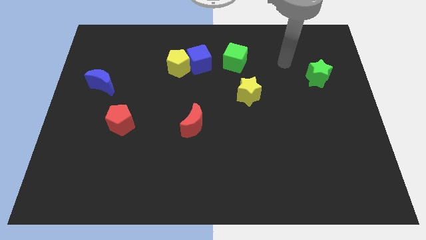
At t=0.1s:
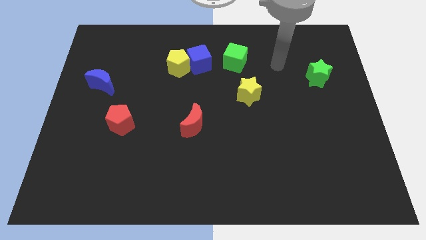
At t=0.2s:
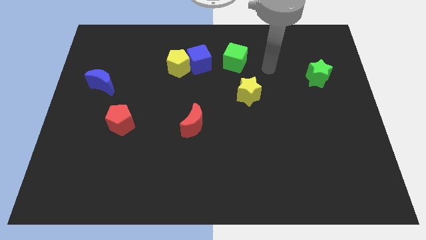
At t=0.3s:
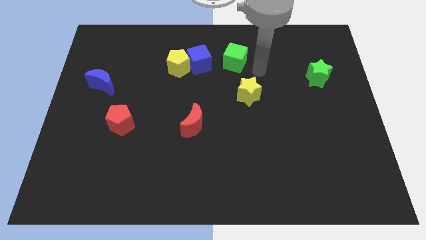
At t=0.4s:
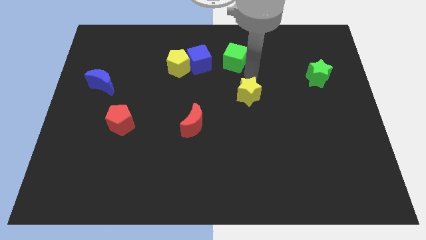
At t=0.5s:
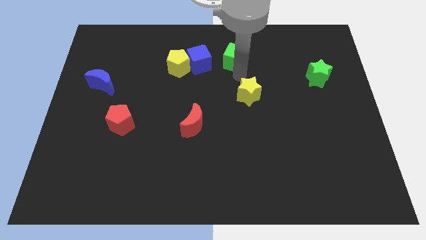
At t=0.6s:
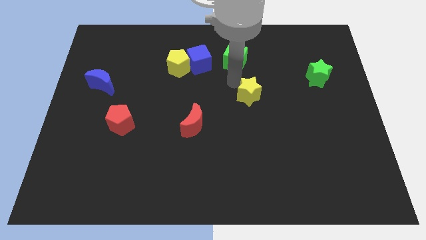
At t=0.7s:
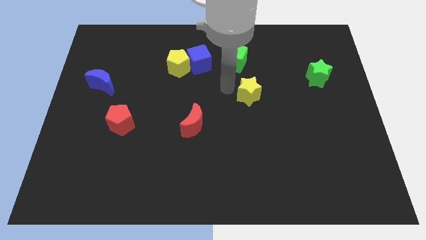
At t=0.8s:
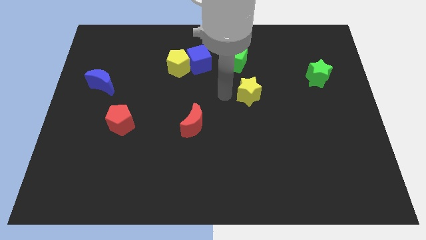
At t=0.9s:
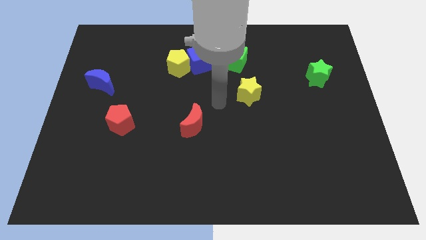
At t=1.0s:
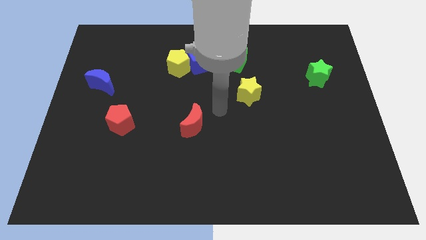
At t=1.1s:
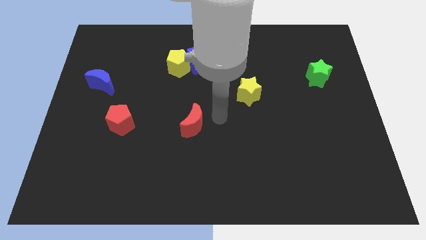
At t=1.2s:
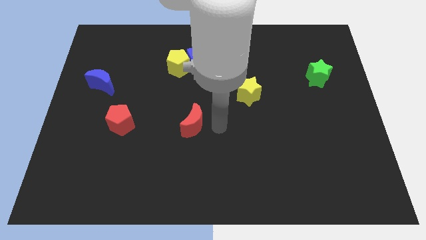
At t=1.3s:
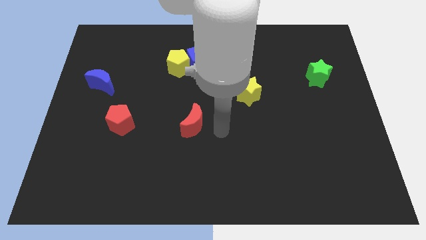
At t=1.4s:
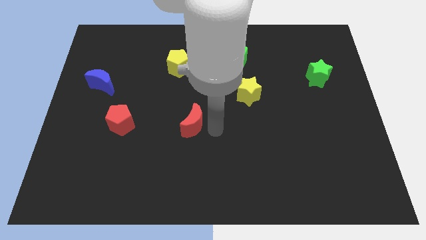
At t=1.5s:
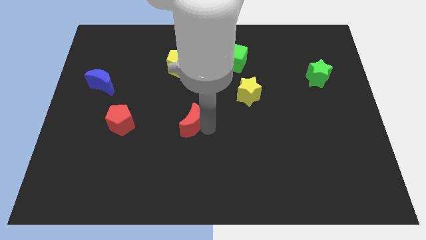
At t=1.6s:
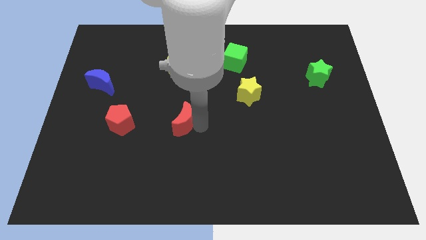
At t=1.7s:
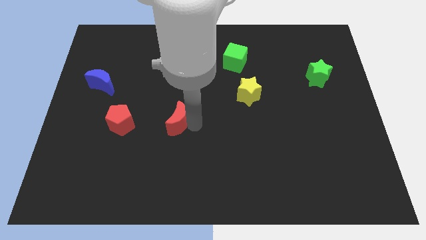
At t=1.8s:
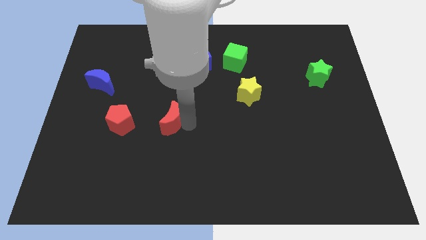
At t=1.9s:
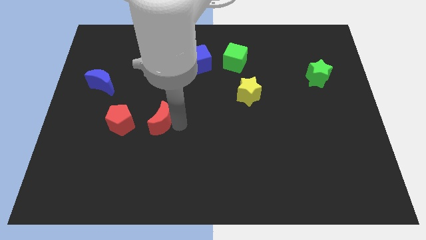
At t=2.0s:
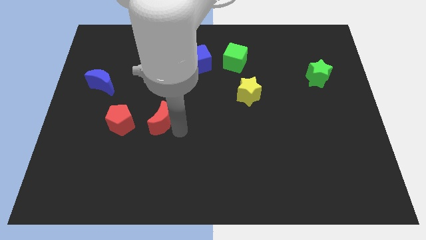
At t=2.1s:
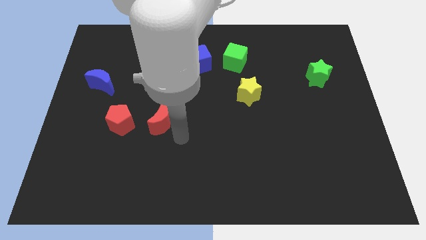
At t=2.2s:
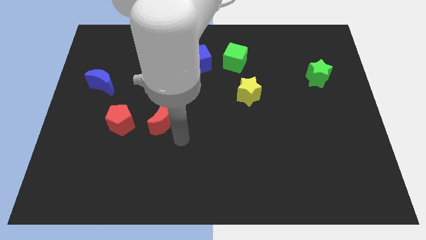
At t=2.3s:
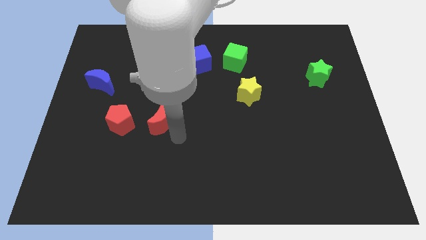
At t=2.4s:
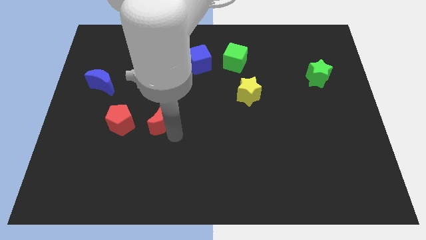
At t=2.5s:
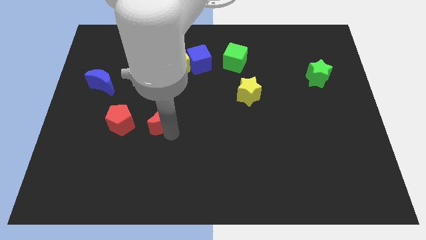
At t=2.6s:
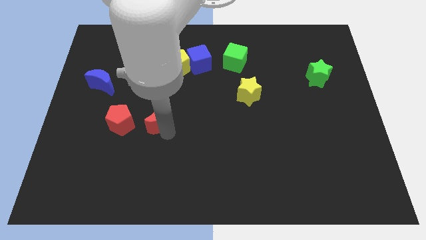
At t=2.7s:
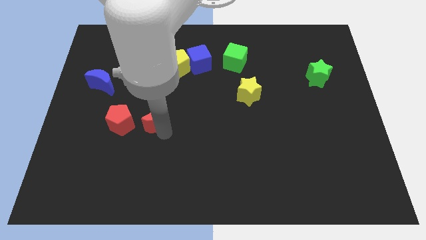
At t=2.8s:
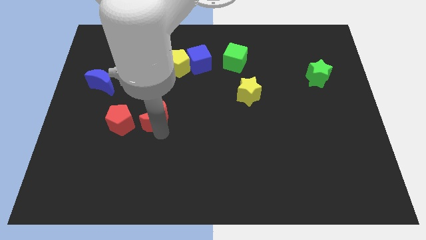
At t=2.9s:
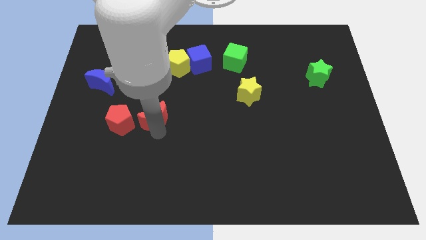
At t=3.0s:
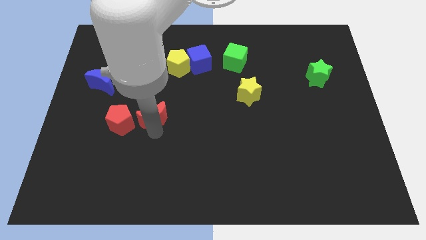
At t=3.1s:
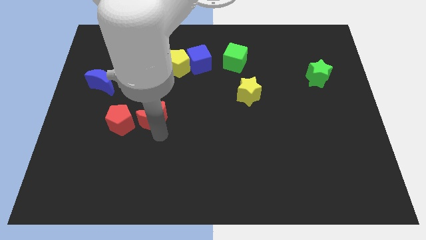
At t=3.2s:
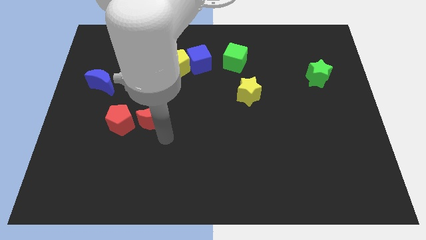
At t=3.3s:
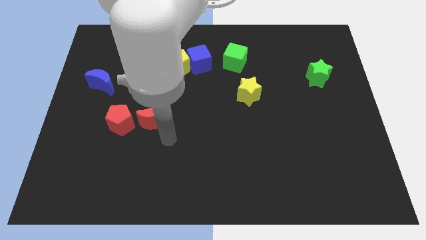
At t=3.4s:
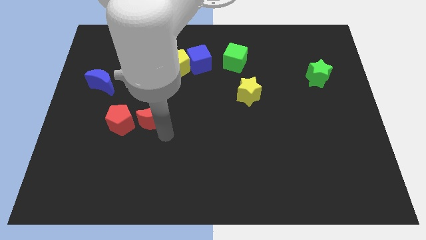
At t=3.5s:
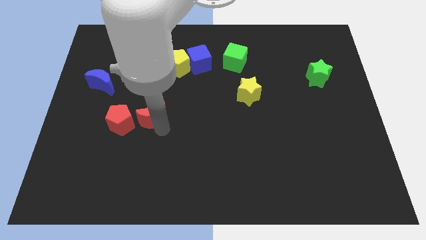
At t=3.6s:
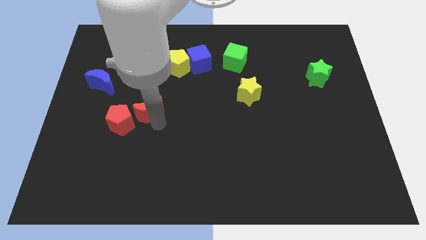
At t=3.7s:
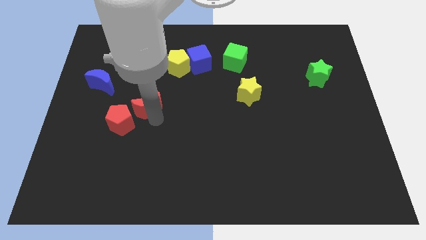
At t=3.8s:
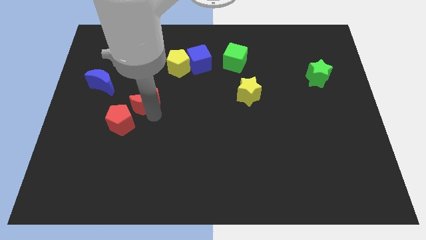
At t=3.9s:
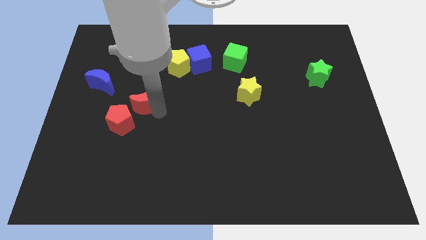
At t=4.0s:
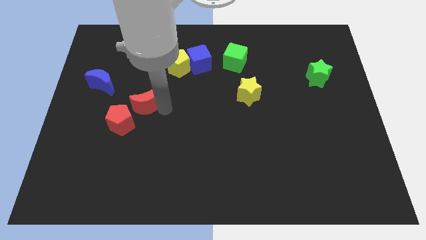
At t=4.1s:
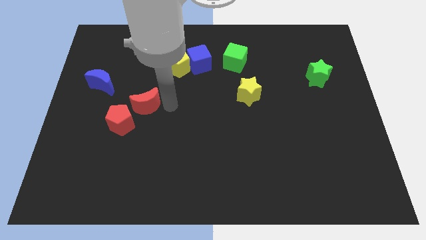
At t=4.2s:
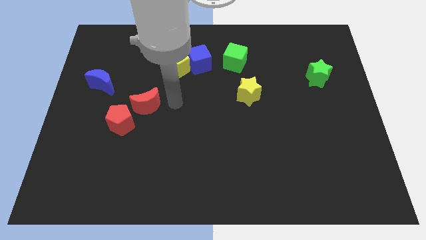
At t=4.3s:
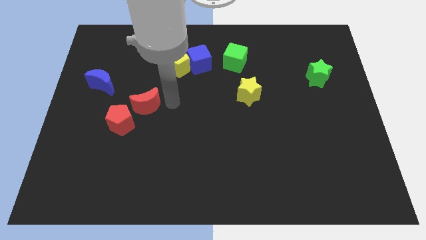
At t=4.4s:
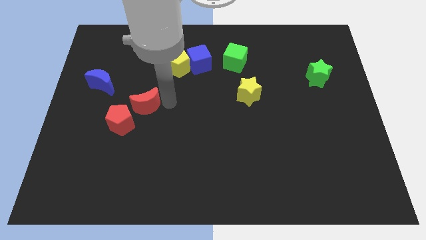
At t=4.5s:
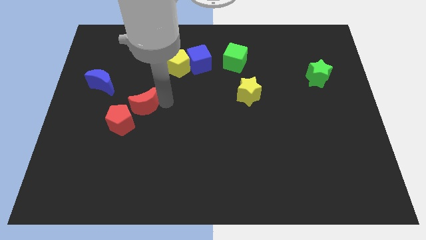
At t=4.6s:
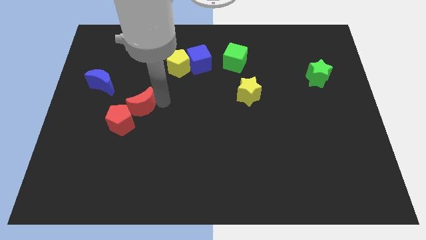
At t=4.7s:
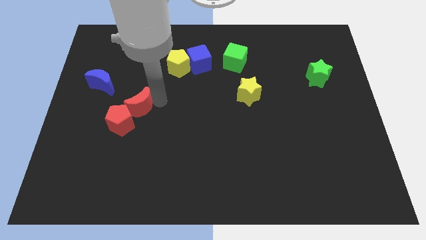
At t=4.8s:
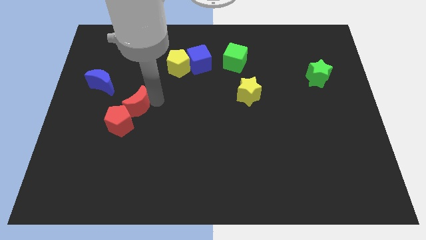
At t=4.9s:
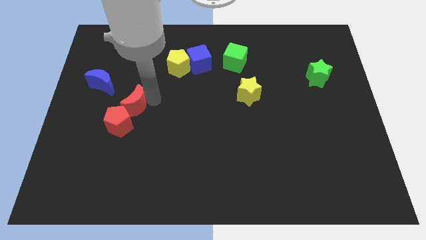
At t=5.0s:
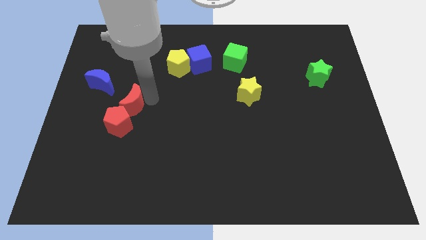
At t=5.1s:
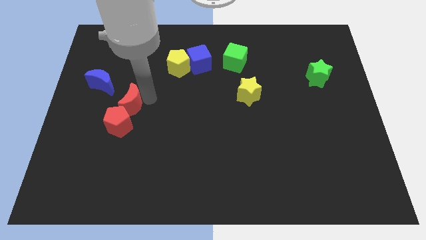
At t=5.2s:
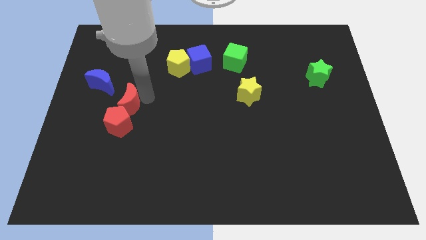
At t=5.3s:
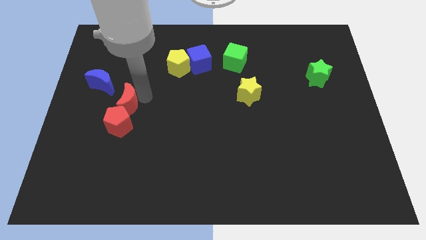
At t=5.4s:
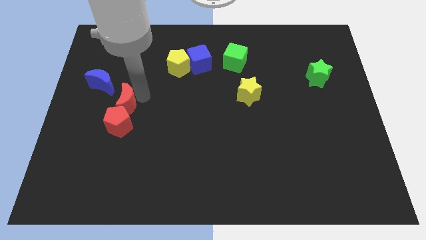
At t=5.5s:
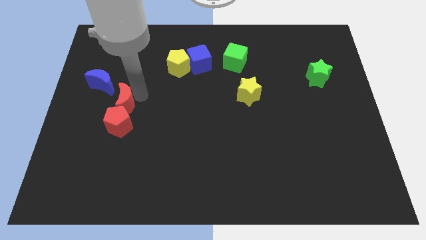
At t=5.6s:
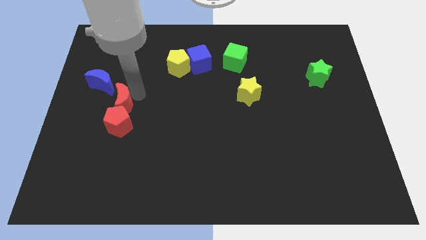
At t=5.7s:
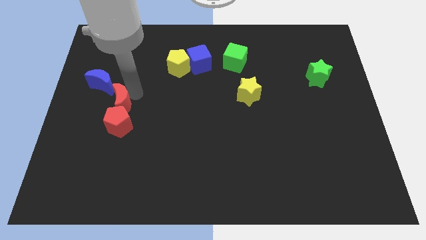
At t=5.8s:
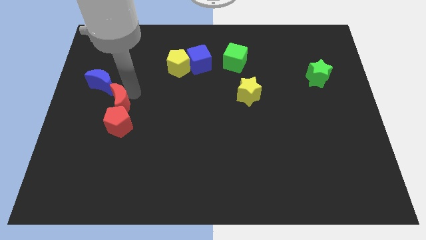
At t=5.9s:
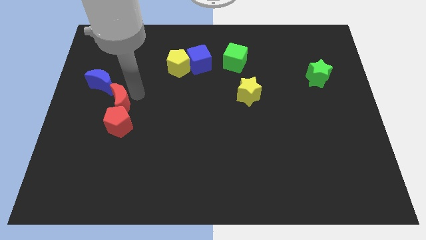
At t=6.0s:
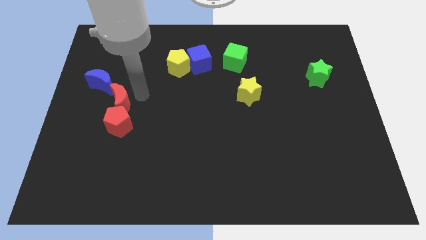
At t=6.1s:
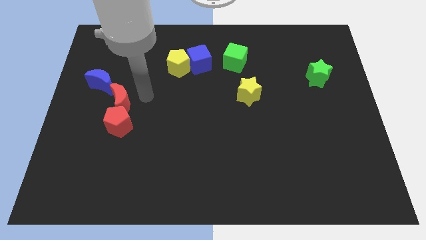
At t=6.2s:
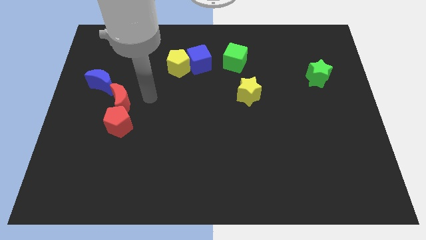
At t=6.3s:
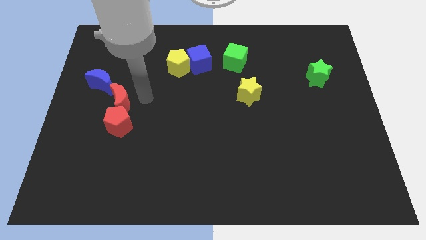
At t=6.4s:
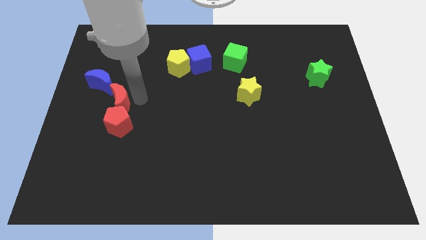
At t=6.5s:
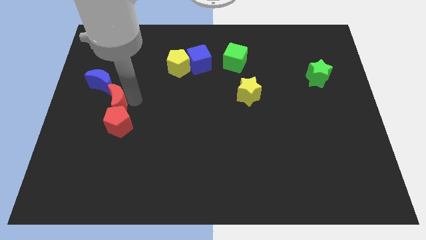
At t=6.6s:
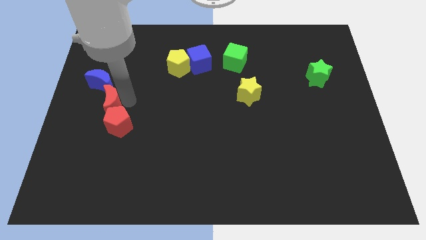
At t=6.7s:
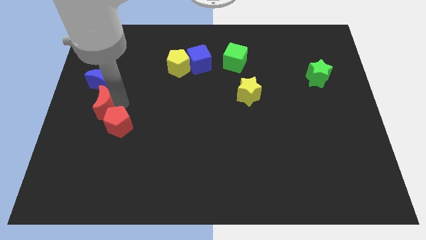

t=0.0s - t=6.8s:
push the red moon to the left side

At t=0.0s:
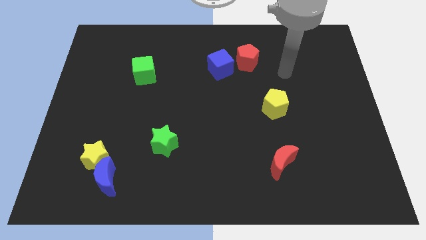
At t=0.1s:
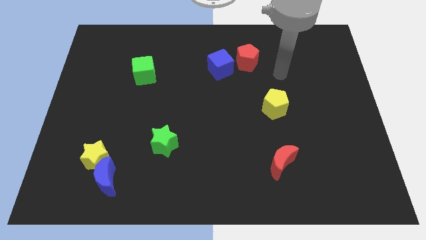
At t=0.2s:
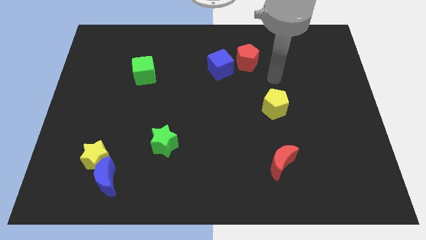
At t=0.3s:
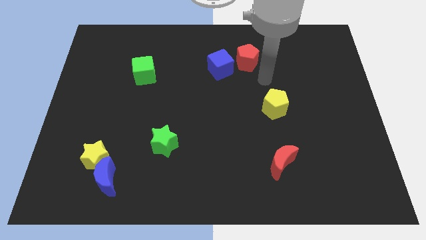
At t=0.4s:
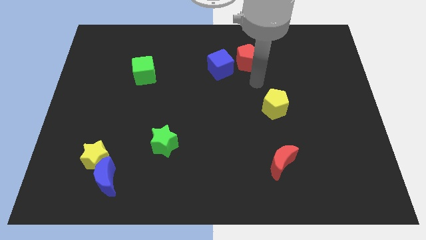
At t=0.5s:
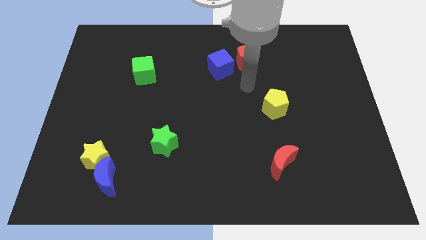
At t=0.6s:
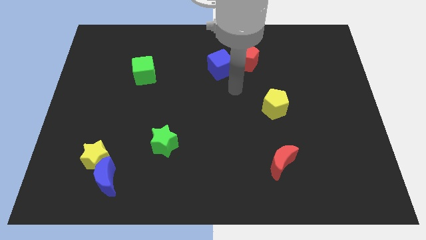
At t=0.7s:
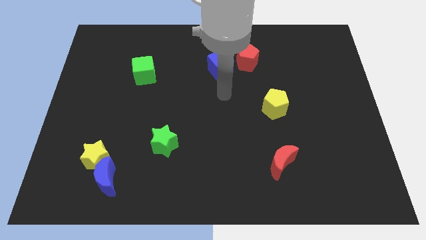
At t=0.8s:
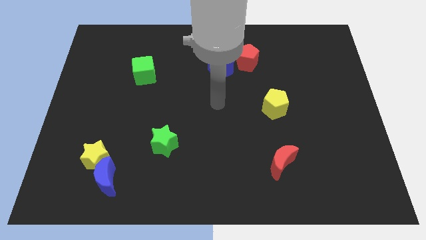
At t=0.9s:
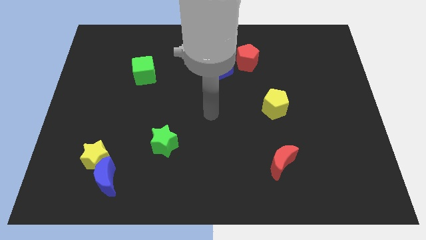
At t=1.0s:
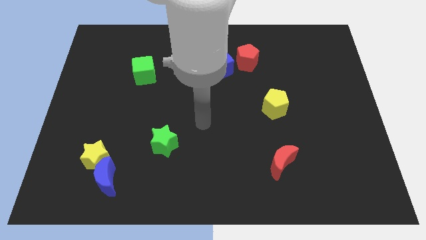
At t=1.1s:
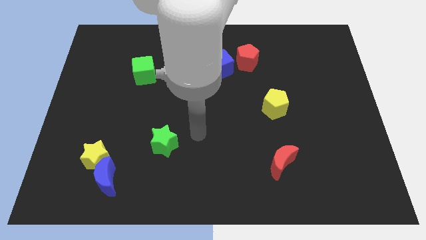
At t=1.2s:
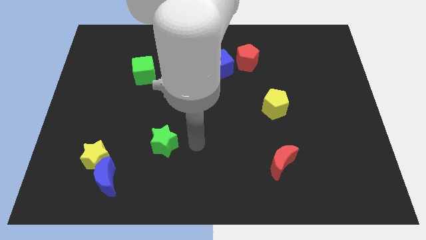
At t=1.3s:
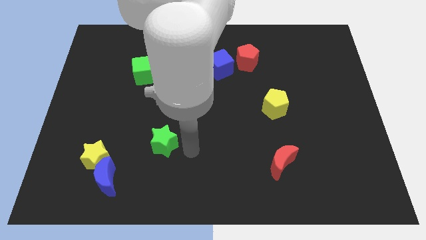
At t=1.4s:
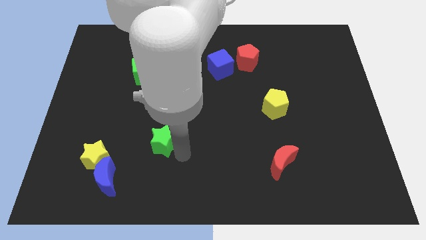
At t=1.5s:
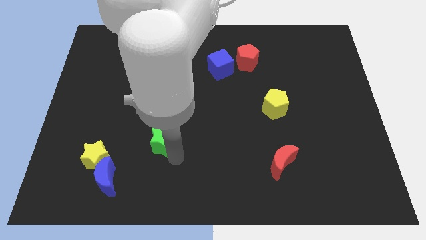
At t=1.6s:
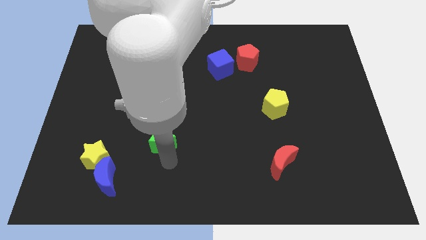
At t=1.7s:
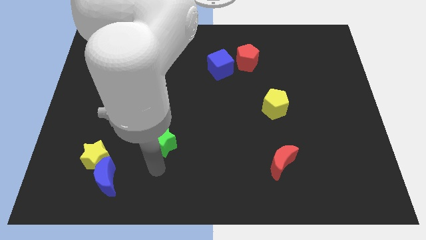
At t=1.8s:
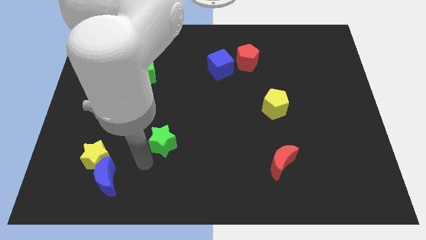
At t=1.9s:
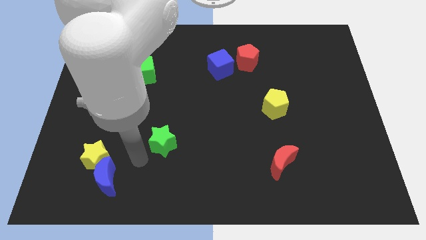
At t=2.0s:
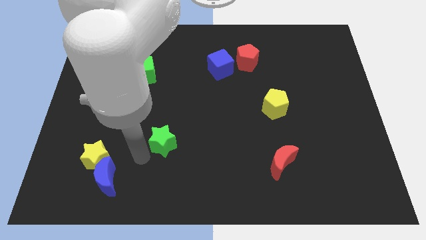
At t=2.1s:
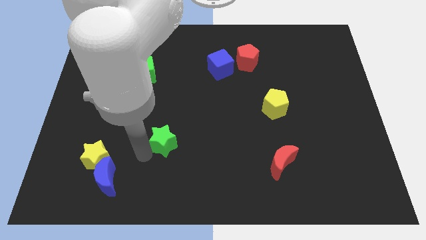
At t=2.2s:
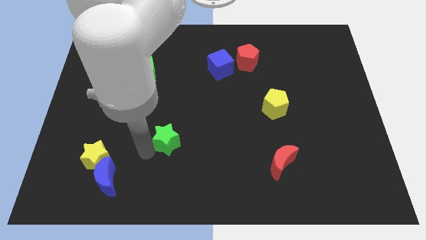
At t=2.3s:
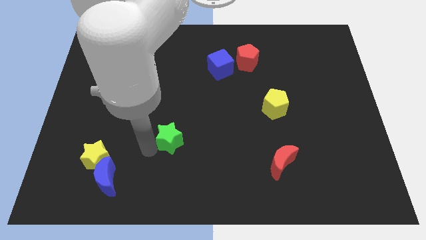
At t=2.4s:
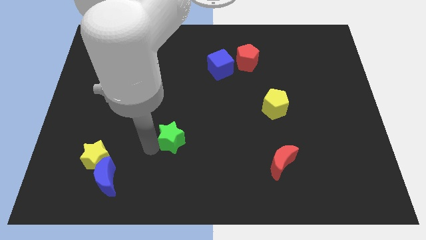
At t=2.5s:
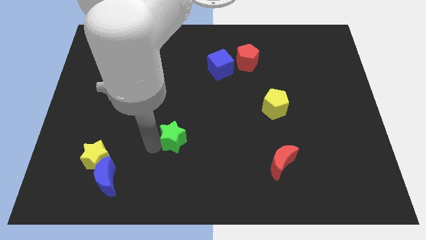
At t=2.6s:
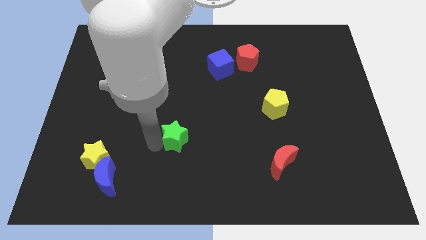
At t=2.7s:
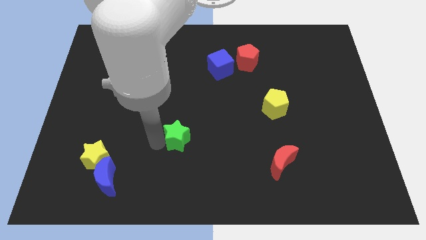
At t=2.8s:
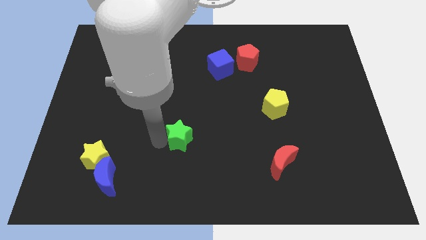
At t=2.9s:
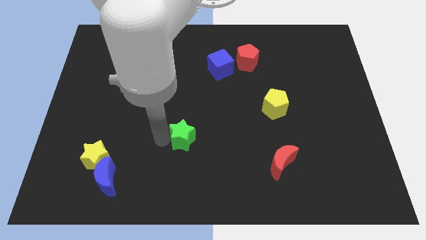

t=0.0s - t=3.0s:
push the green star to the center
